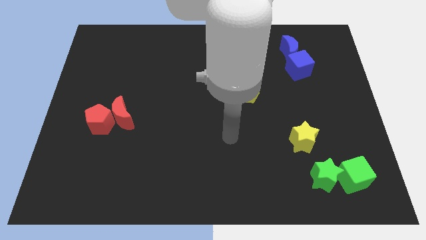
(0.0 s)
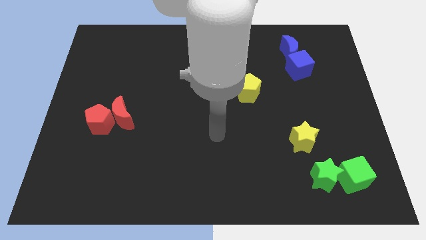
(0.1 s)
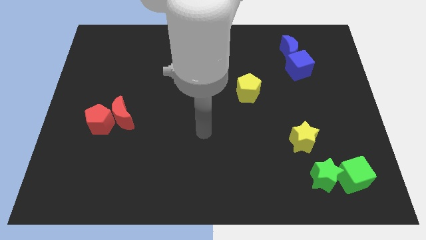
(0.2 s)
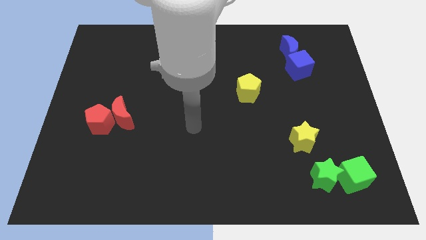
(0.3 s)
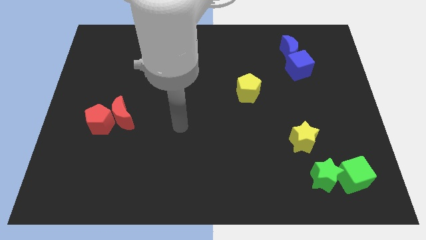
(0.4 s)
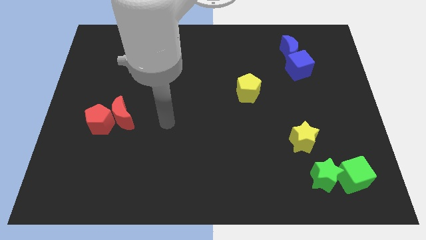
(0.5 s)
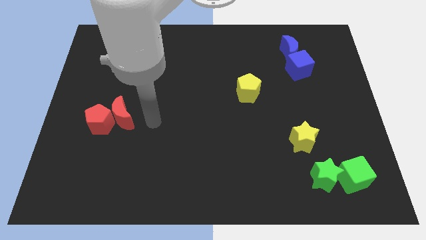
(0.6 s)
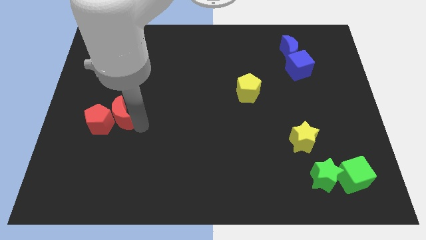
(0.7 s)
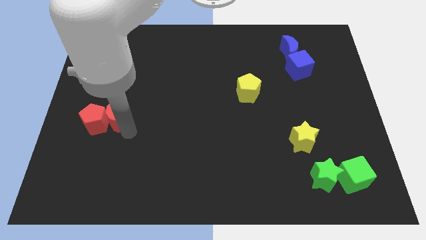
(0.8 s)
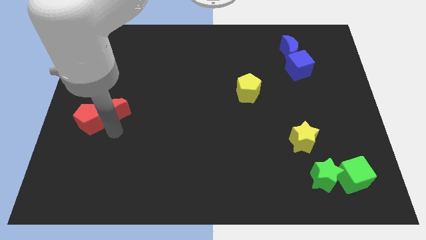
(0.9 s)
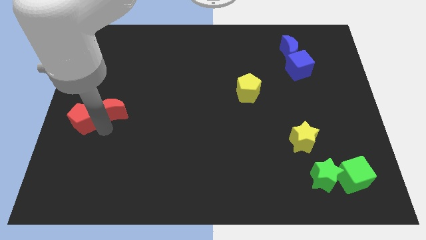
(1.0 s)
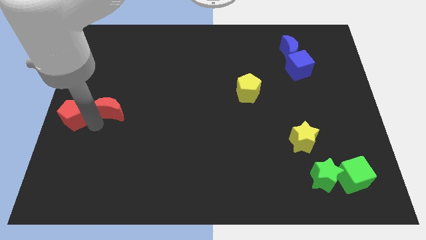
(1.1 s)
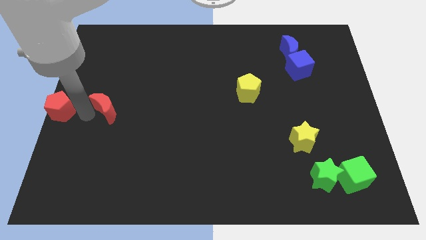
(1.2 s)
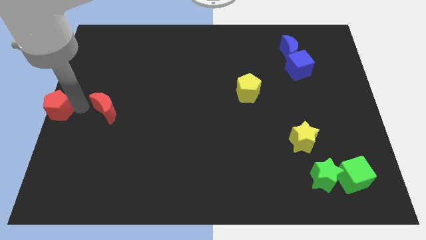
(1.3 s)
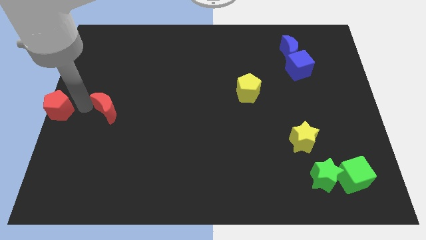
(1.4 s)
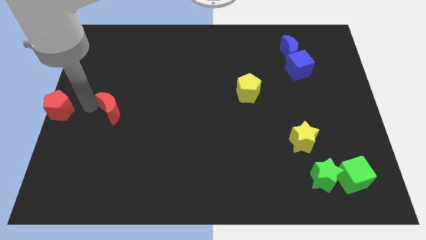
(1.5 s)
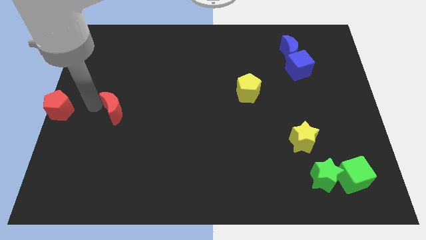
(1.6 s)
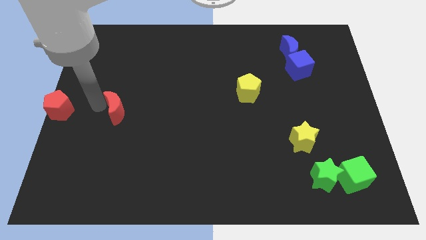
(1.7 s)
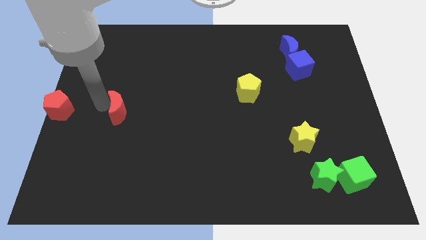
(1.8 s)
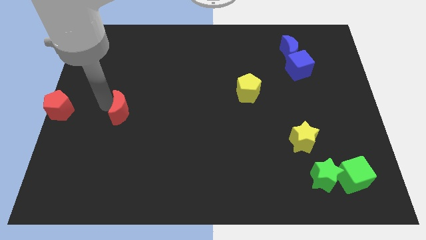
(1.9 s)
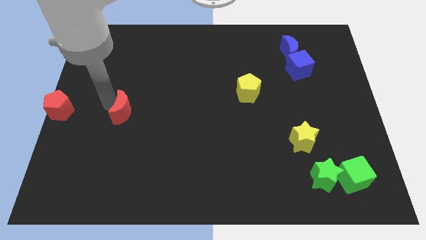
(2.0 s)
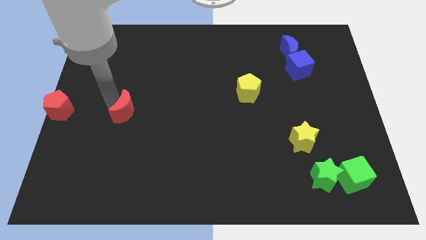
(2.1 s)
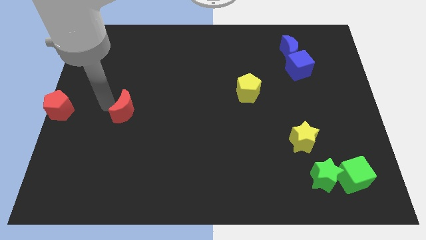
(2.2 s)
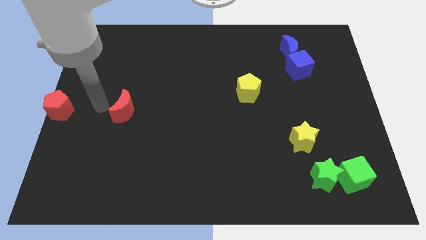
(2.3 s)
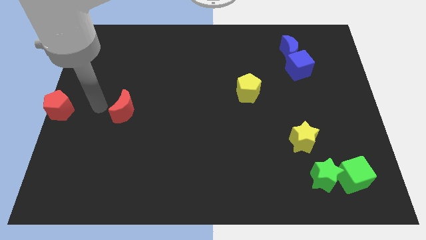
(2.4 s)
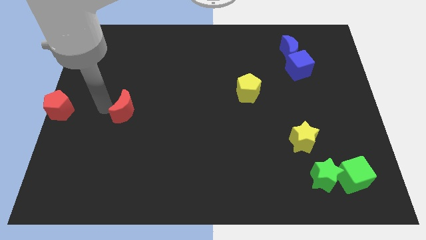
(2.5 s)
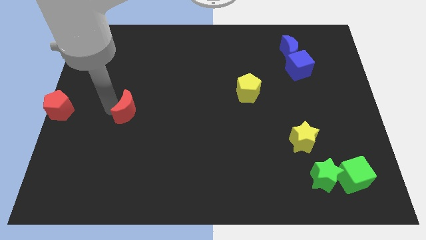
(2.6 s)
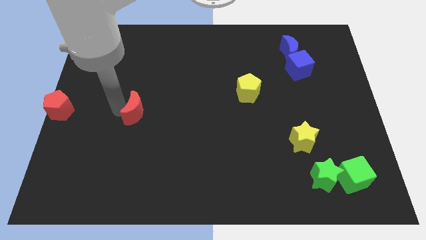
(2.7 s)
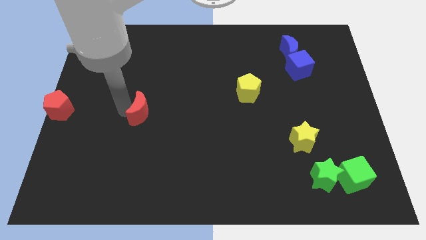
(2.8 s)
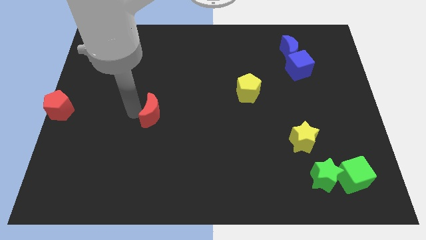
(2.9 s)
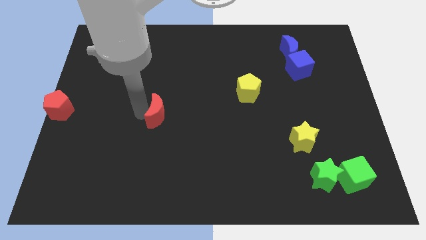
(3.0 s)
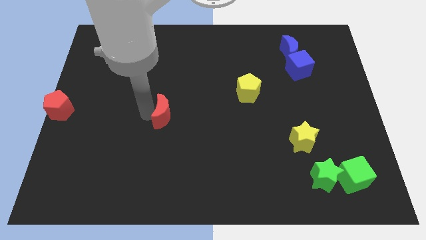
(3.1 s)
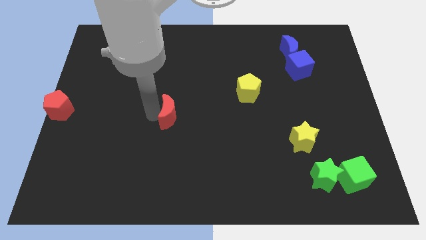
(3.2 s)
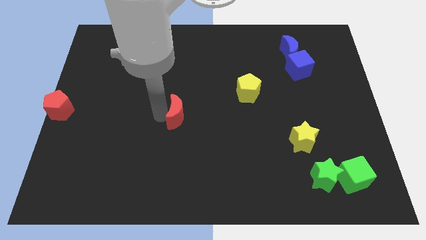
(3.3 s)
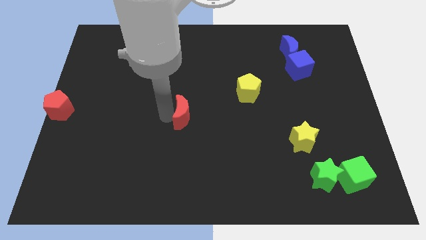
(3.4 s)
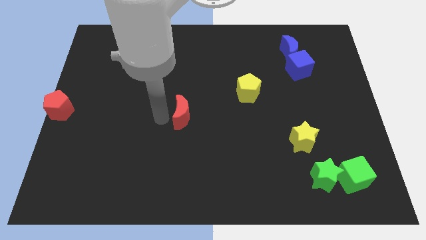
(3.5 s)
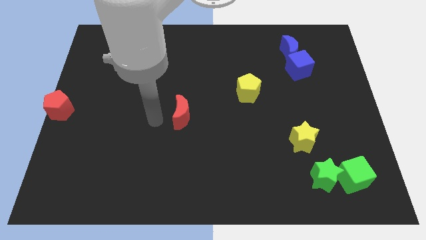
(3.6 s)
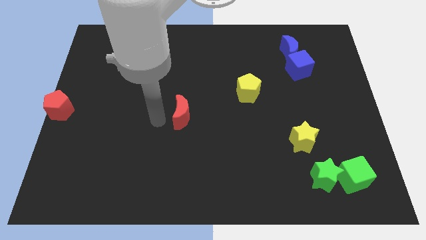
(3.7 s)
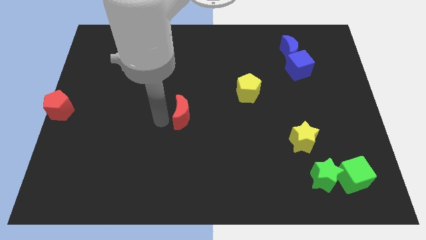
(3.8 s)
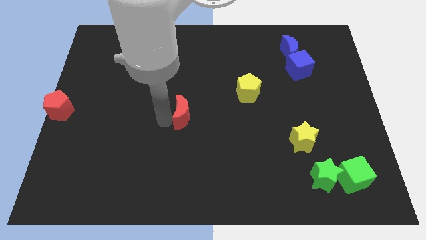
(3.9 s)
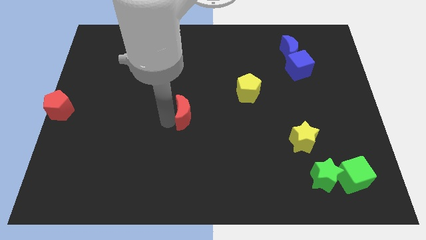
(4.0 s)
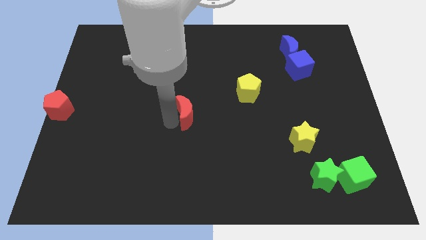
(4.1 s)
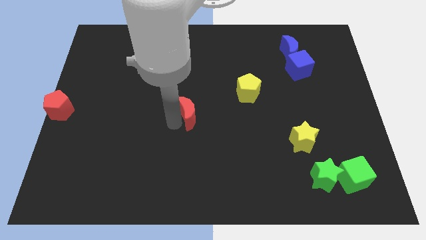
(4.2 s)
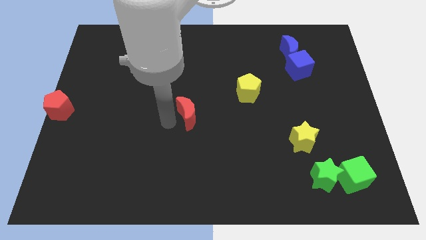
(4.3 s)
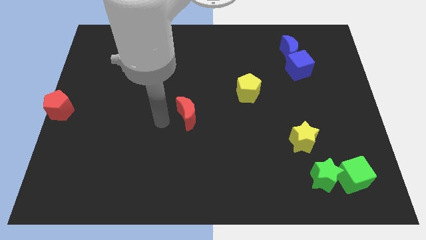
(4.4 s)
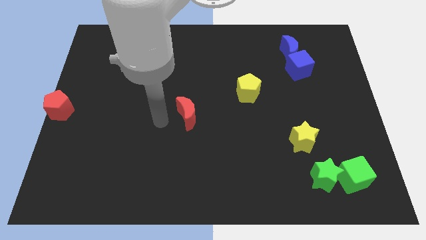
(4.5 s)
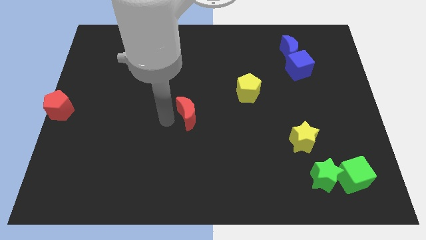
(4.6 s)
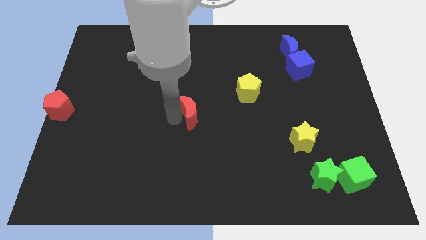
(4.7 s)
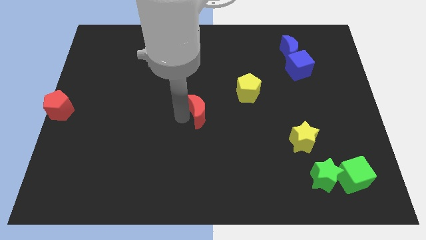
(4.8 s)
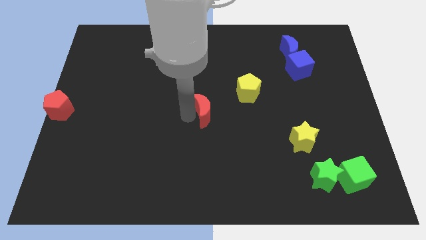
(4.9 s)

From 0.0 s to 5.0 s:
slide the red moon diagonally down and to the left of the yellow pentagon

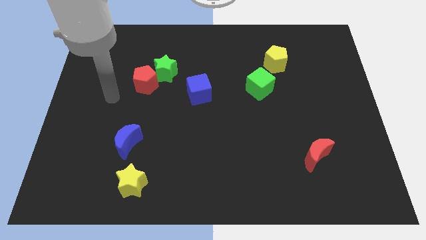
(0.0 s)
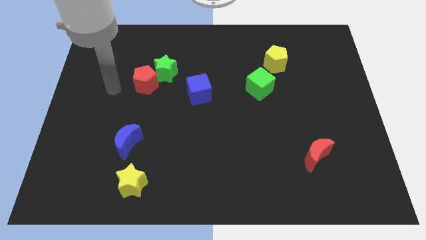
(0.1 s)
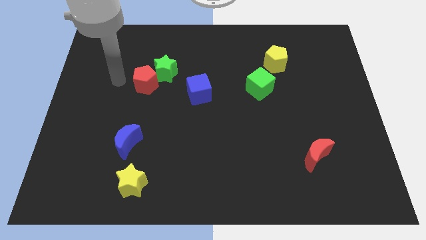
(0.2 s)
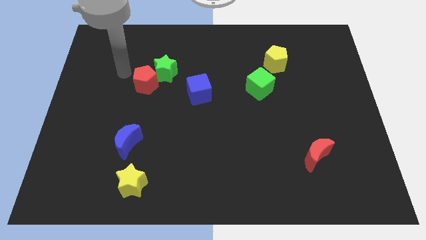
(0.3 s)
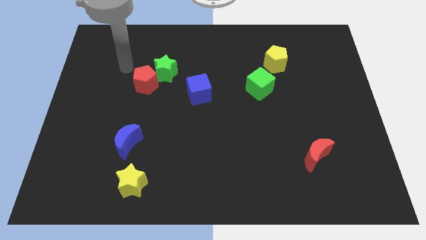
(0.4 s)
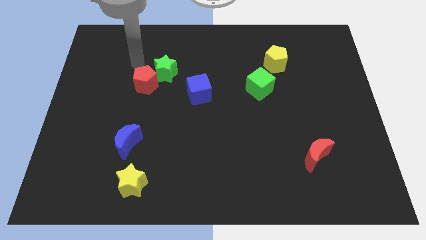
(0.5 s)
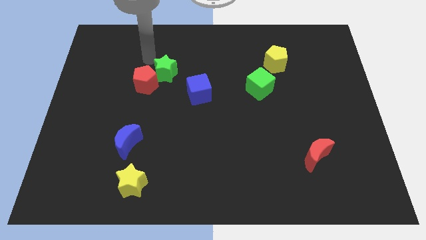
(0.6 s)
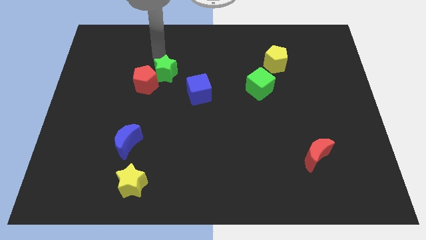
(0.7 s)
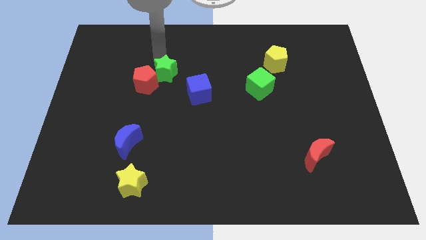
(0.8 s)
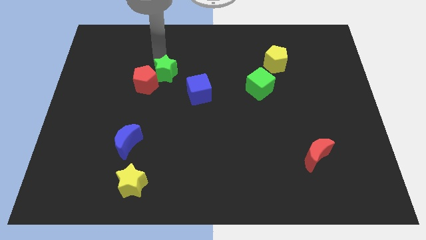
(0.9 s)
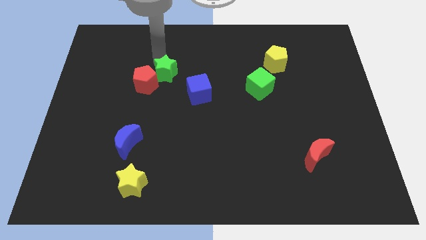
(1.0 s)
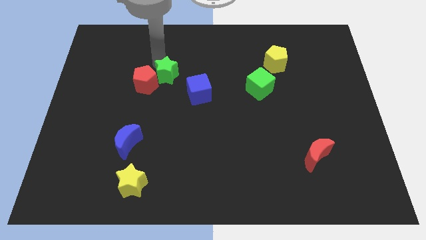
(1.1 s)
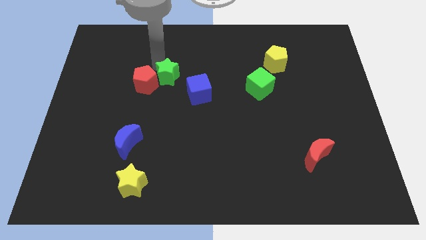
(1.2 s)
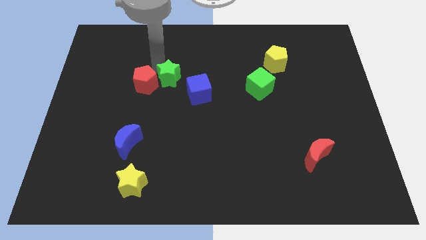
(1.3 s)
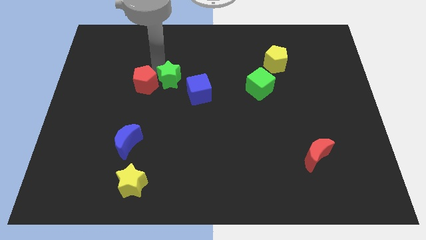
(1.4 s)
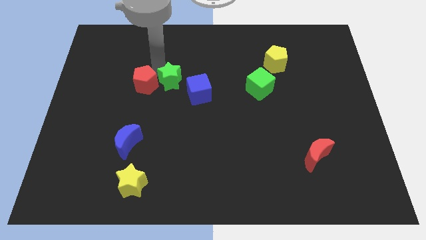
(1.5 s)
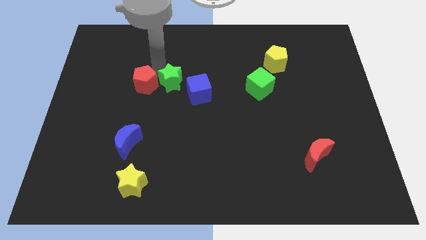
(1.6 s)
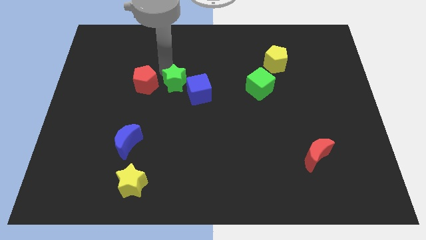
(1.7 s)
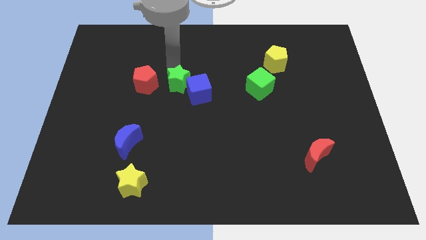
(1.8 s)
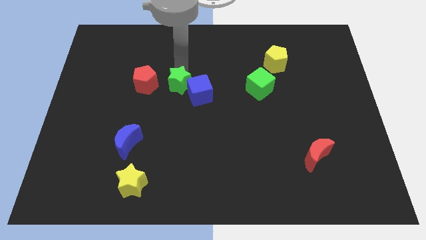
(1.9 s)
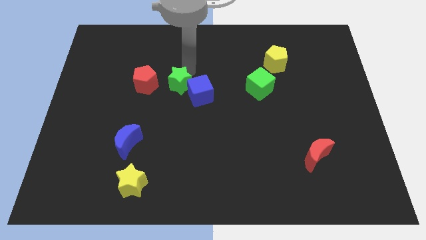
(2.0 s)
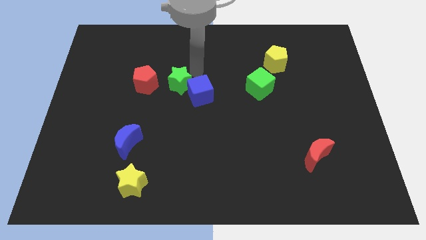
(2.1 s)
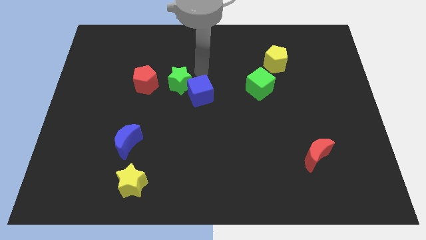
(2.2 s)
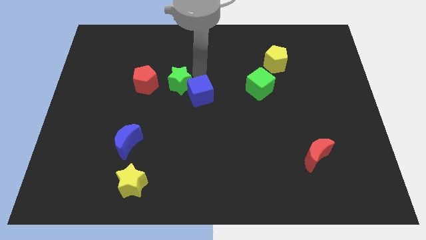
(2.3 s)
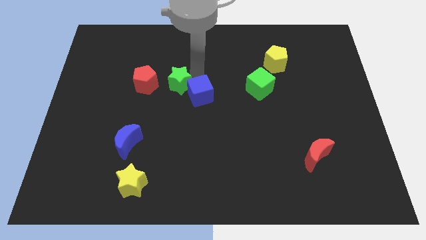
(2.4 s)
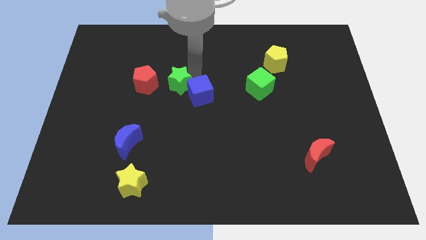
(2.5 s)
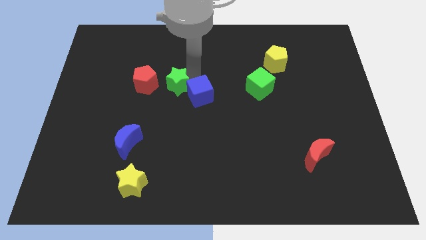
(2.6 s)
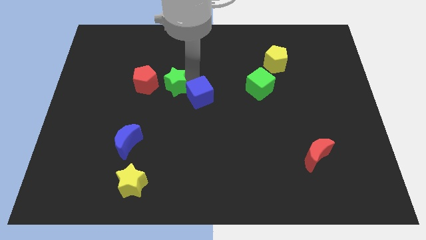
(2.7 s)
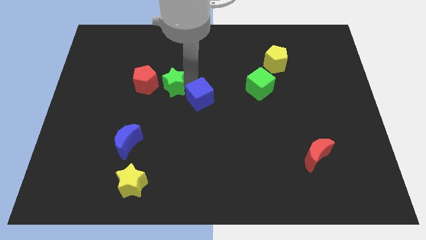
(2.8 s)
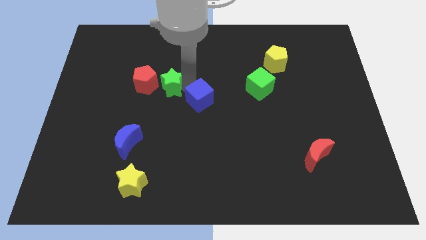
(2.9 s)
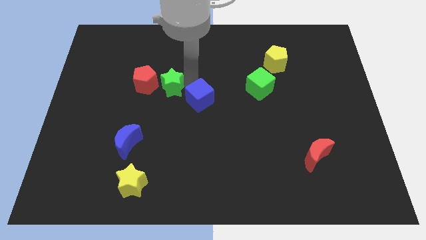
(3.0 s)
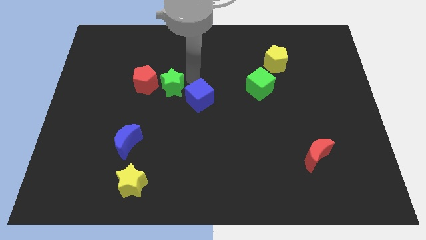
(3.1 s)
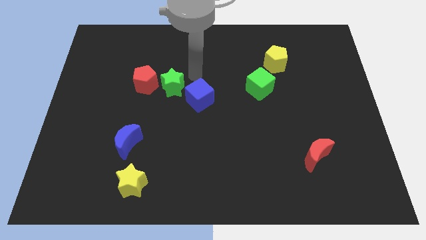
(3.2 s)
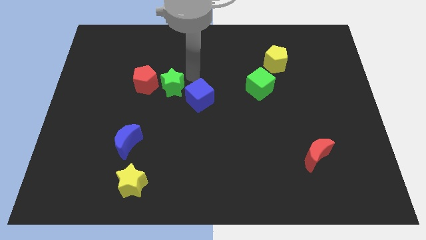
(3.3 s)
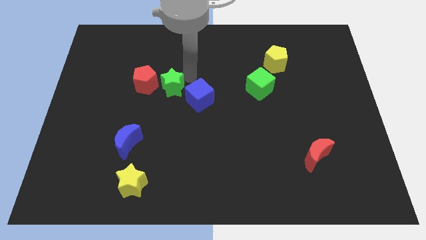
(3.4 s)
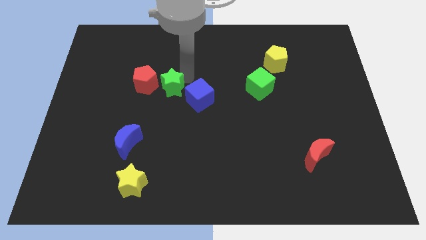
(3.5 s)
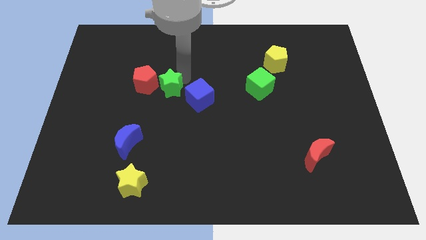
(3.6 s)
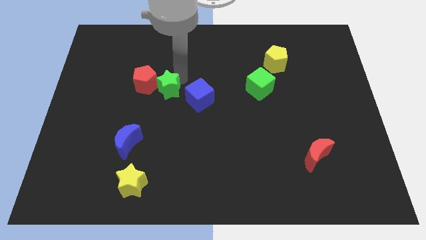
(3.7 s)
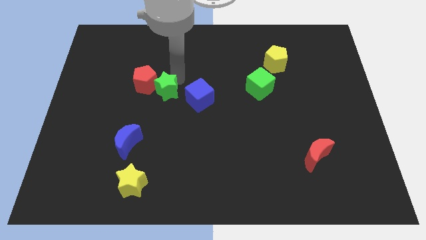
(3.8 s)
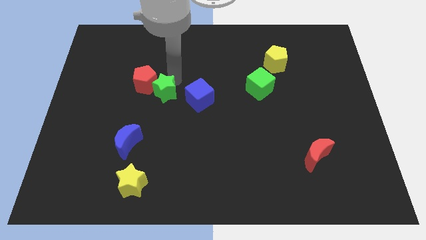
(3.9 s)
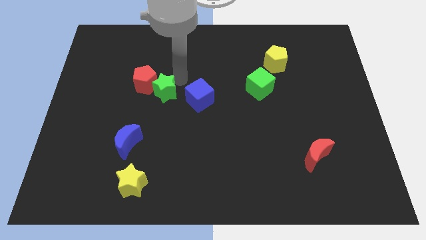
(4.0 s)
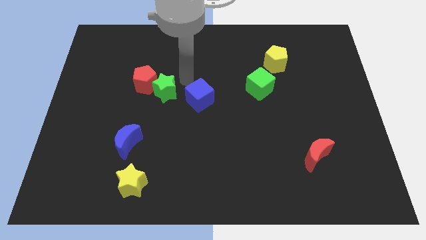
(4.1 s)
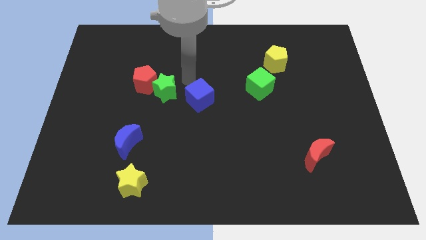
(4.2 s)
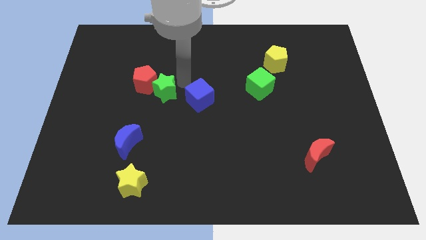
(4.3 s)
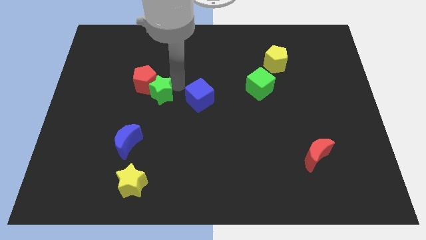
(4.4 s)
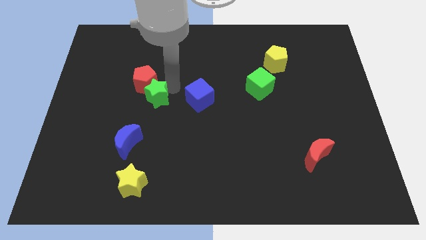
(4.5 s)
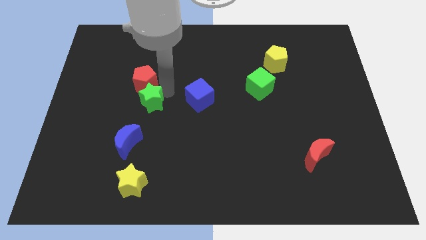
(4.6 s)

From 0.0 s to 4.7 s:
put the green star to the top side of the blue moon
